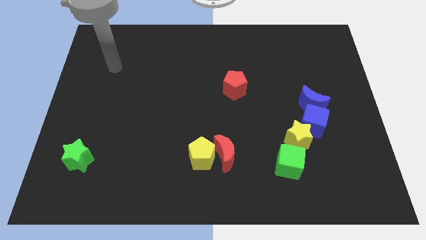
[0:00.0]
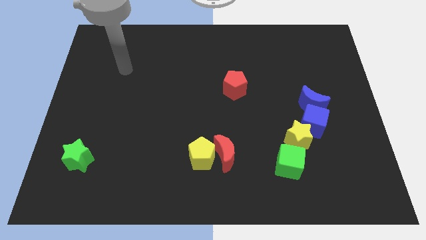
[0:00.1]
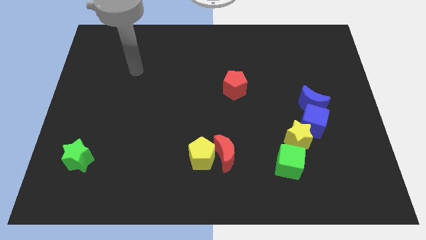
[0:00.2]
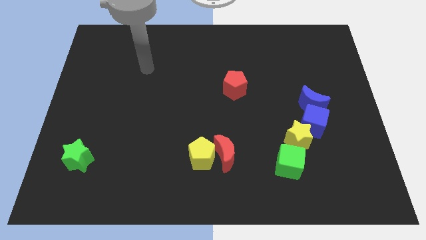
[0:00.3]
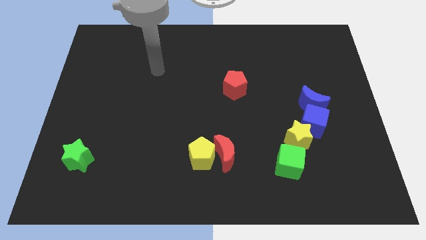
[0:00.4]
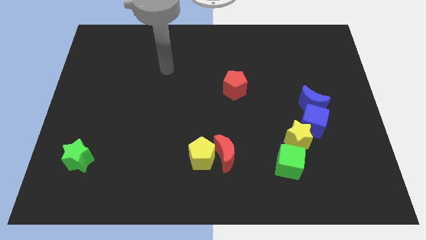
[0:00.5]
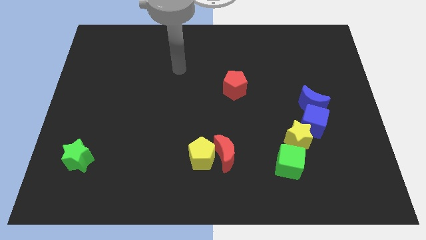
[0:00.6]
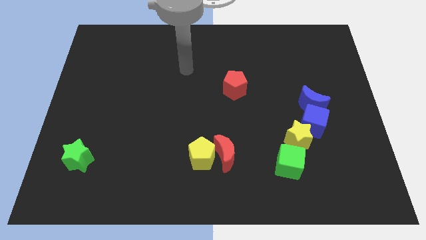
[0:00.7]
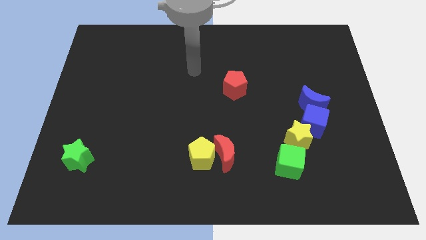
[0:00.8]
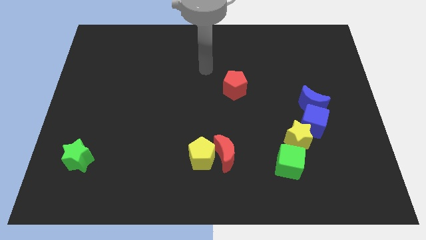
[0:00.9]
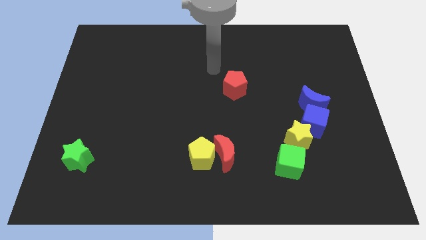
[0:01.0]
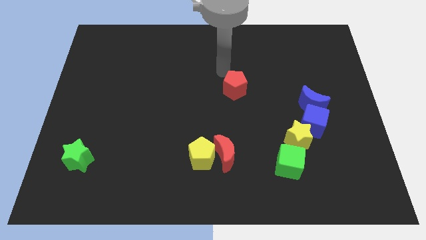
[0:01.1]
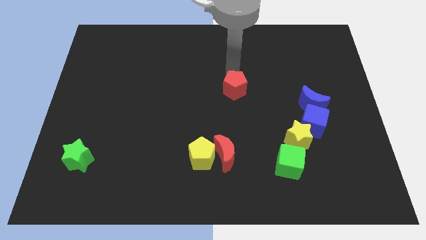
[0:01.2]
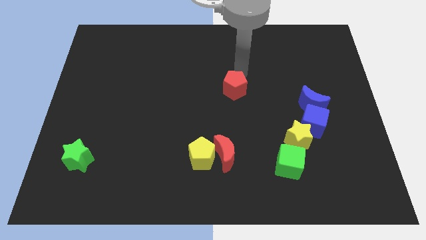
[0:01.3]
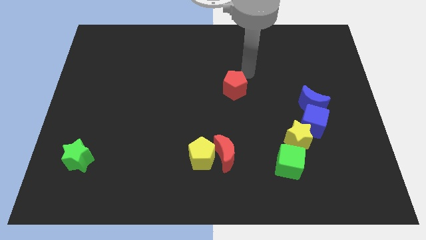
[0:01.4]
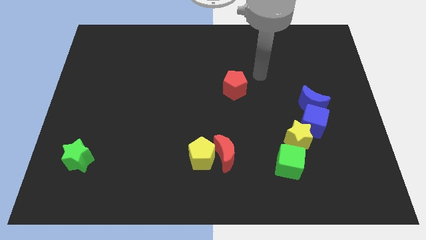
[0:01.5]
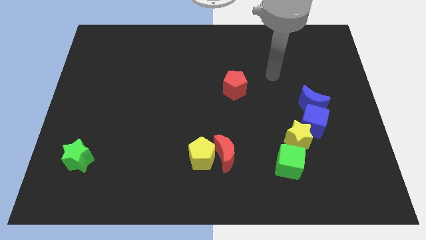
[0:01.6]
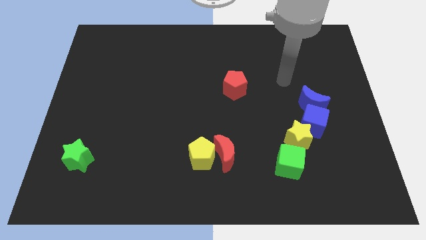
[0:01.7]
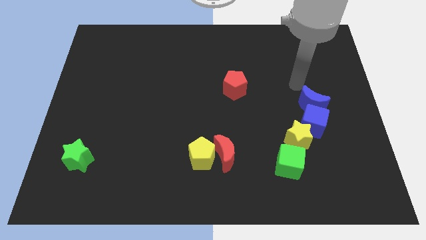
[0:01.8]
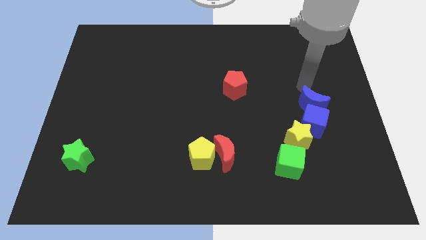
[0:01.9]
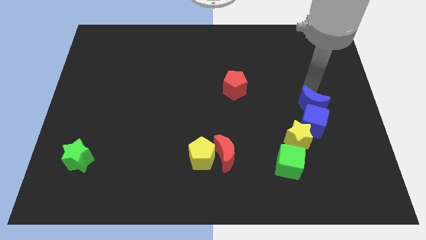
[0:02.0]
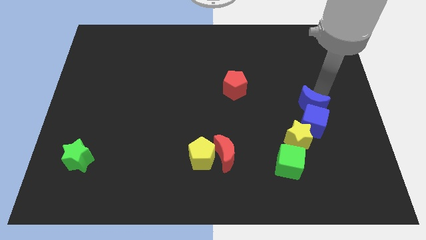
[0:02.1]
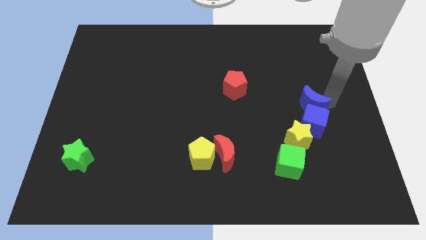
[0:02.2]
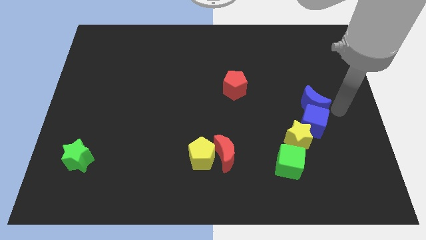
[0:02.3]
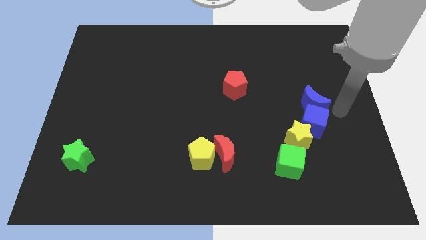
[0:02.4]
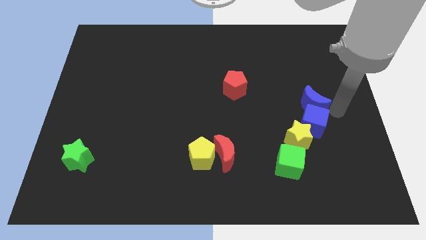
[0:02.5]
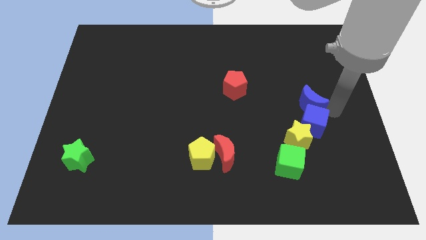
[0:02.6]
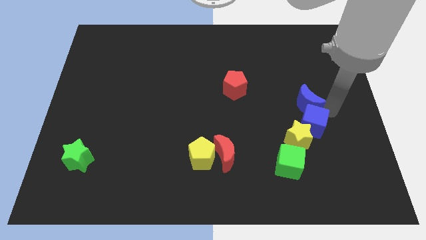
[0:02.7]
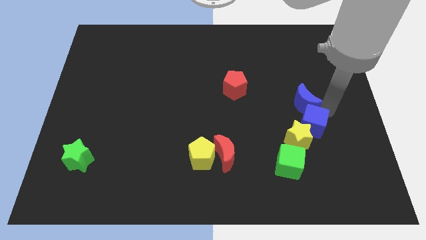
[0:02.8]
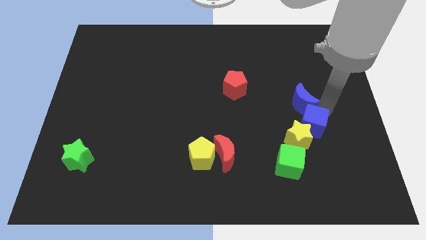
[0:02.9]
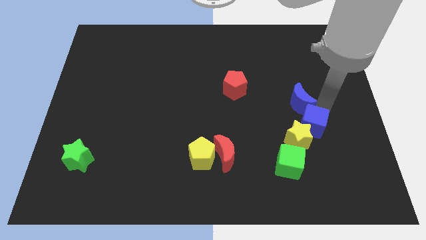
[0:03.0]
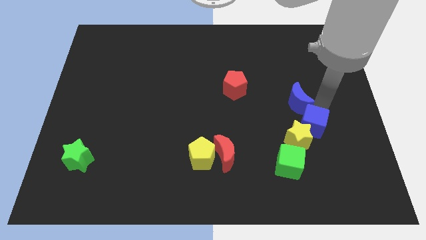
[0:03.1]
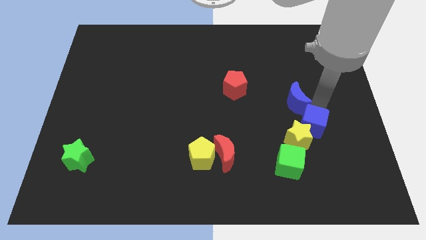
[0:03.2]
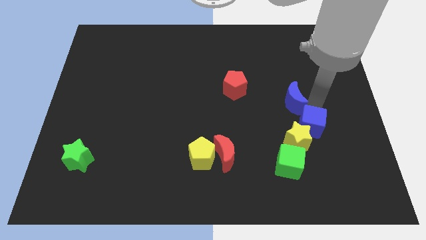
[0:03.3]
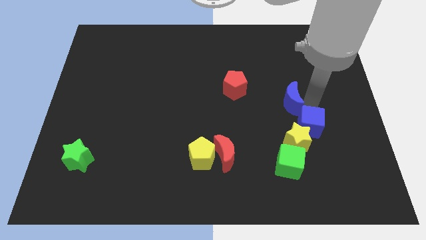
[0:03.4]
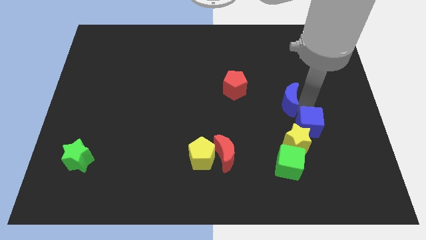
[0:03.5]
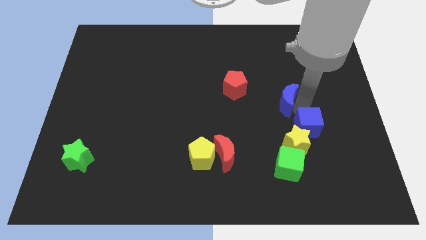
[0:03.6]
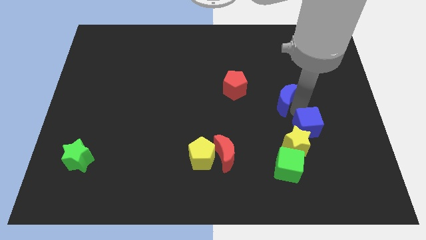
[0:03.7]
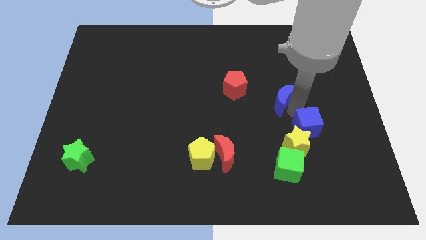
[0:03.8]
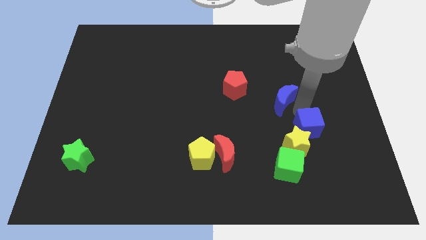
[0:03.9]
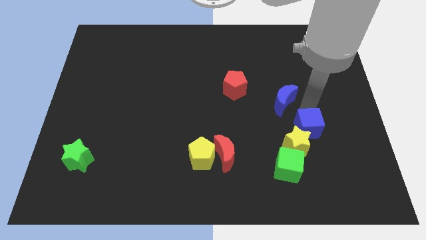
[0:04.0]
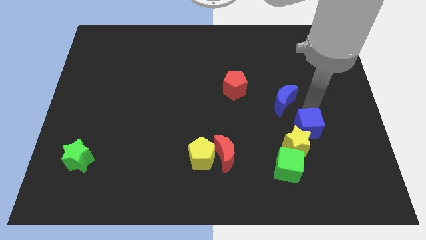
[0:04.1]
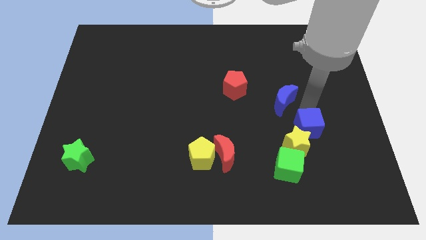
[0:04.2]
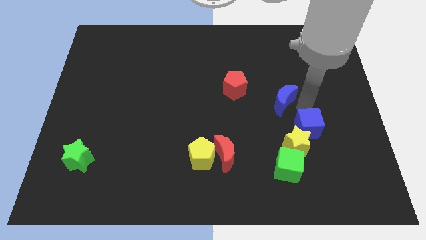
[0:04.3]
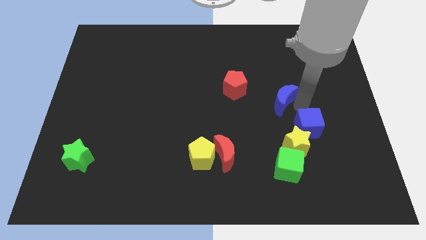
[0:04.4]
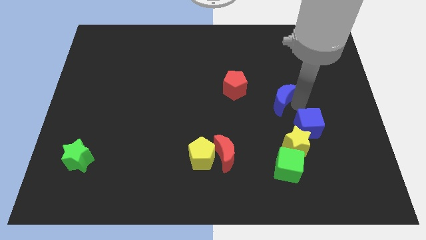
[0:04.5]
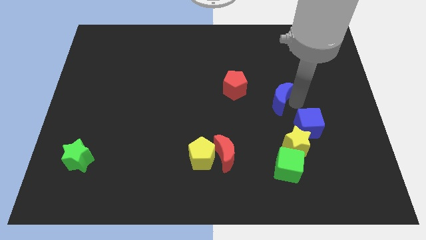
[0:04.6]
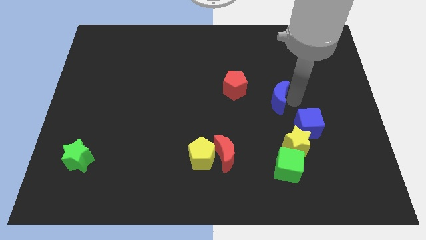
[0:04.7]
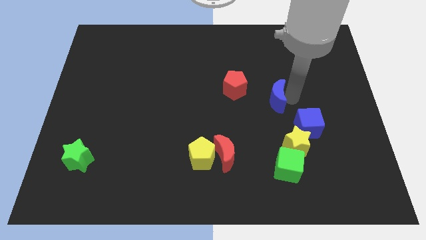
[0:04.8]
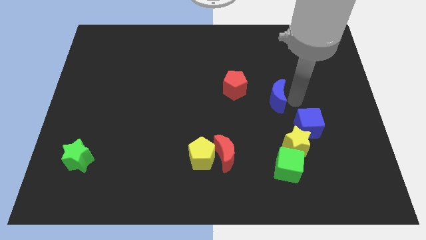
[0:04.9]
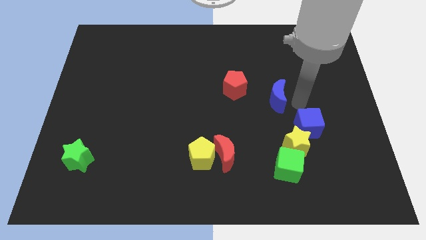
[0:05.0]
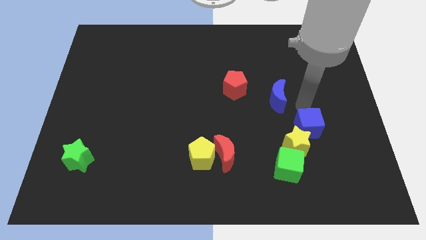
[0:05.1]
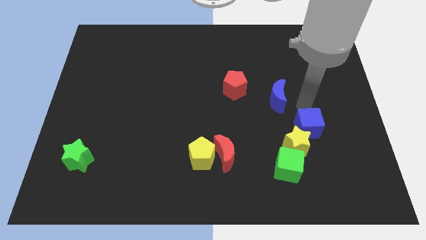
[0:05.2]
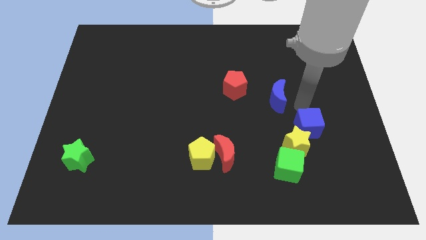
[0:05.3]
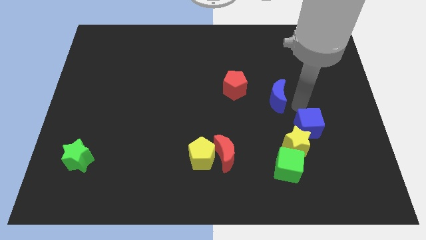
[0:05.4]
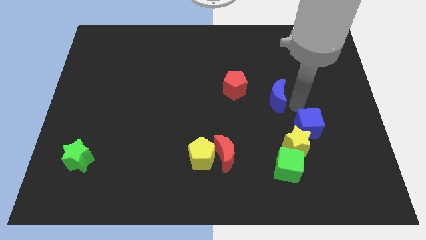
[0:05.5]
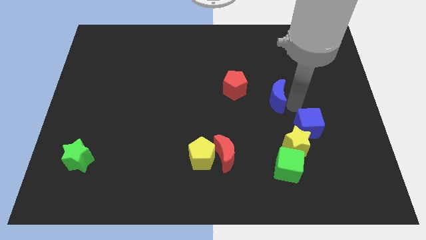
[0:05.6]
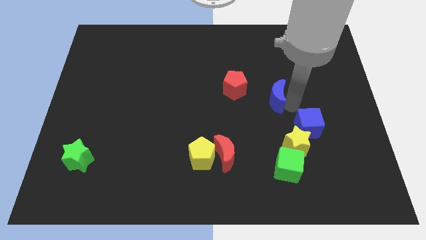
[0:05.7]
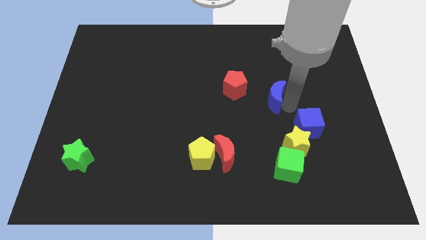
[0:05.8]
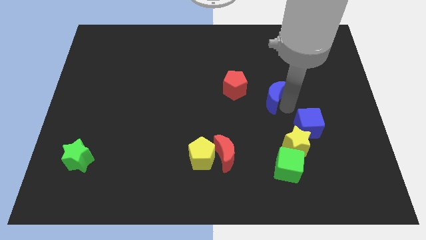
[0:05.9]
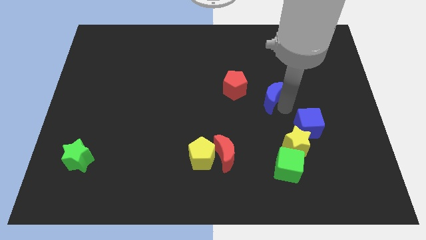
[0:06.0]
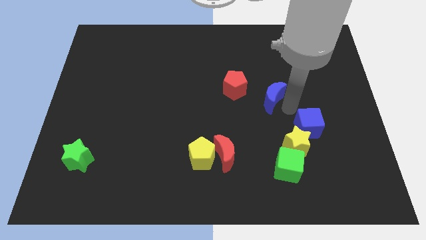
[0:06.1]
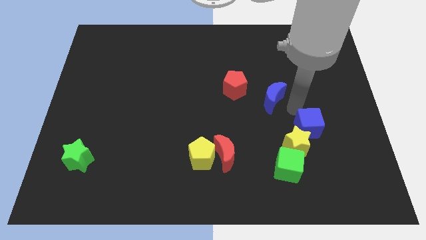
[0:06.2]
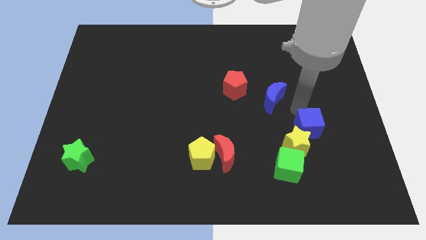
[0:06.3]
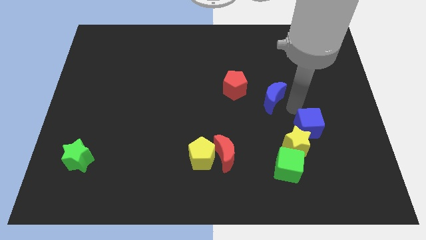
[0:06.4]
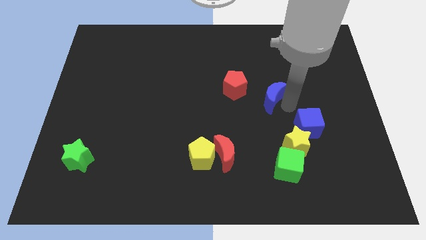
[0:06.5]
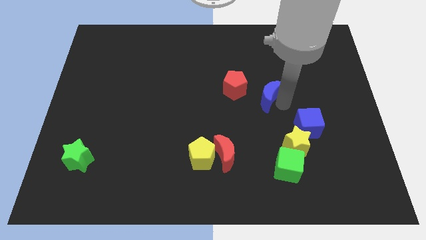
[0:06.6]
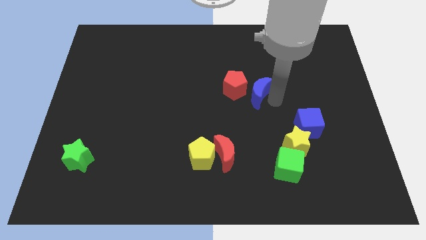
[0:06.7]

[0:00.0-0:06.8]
slide the blue moon close to the red pentagon
